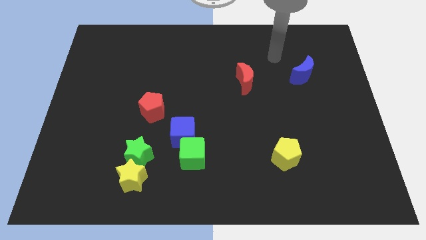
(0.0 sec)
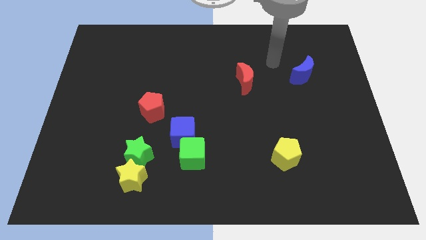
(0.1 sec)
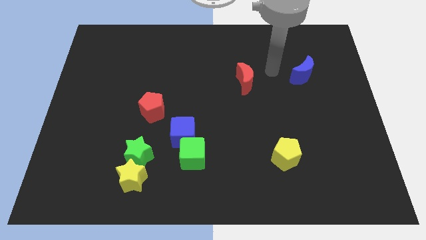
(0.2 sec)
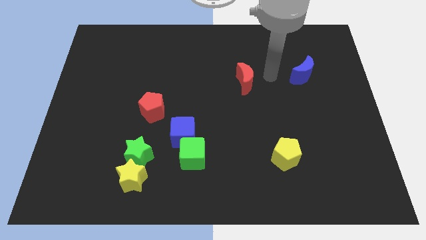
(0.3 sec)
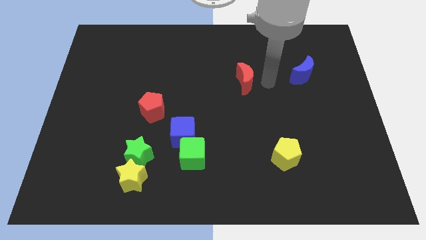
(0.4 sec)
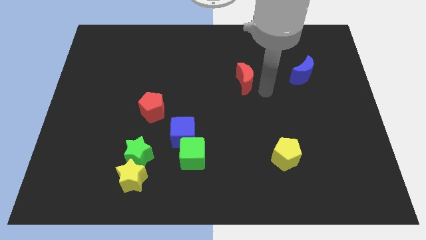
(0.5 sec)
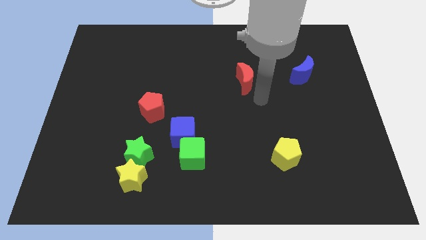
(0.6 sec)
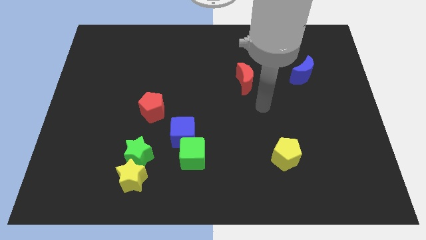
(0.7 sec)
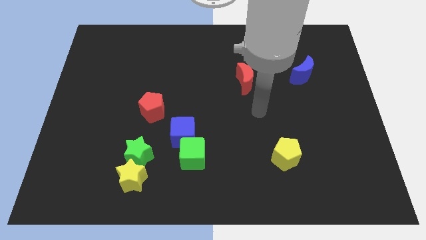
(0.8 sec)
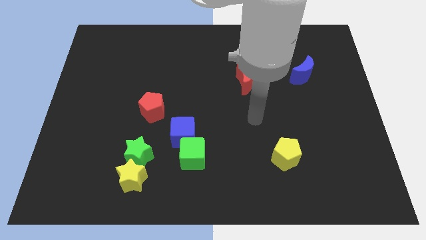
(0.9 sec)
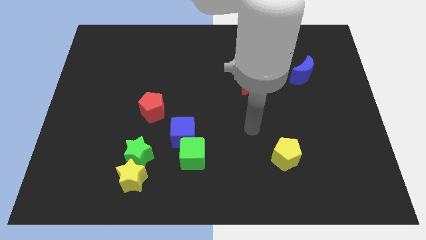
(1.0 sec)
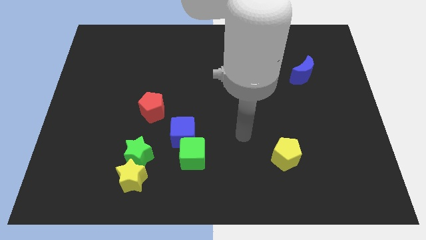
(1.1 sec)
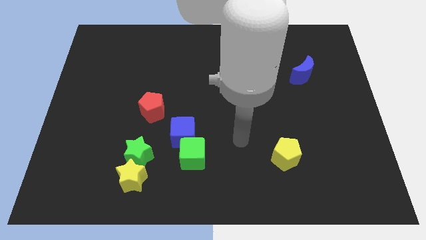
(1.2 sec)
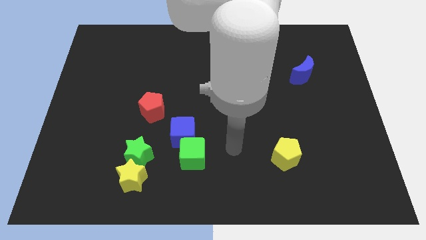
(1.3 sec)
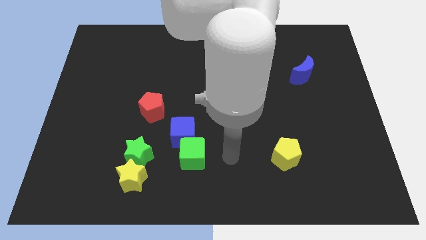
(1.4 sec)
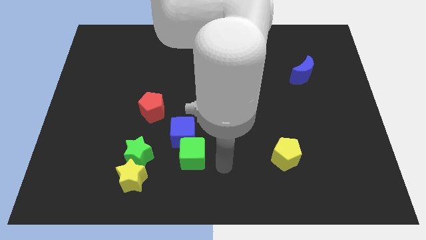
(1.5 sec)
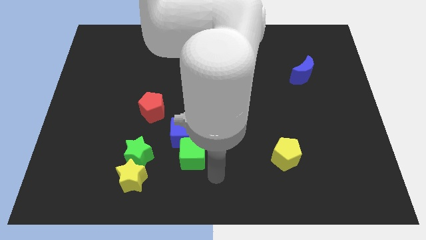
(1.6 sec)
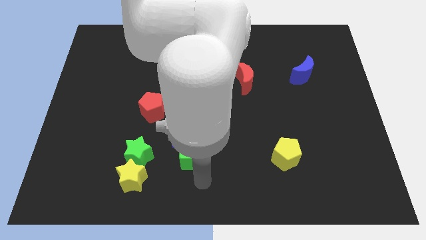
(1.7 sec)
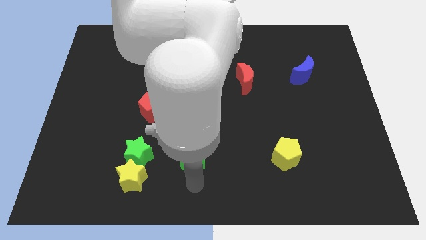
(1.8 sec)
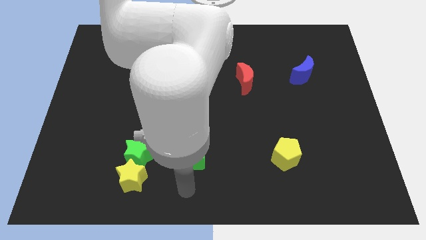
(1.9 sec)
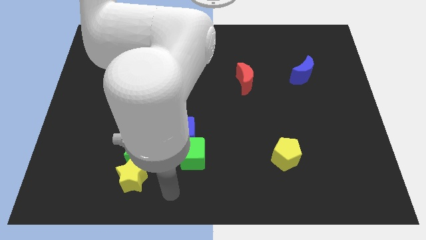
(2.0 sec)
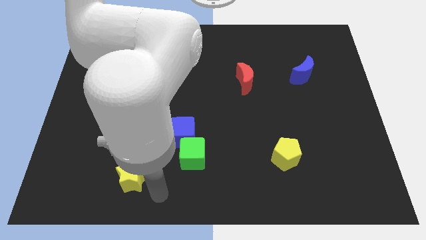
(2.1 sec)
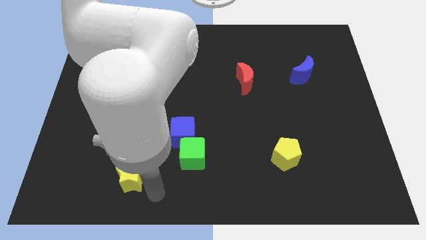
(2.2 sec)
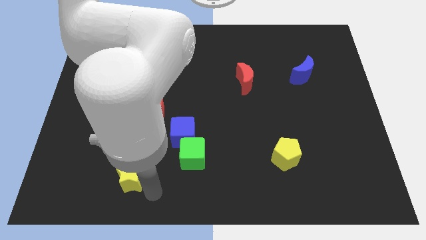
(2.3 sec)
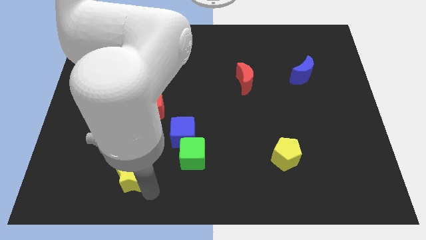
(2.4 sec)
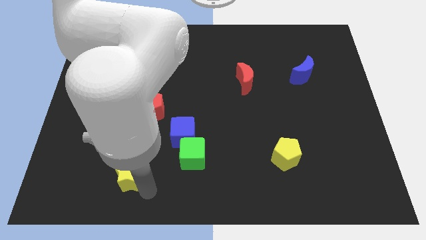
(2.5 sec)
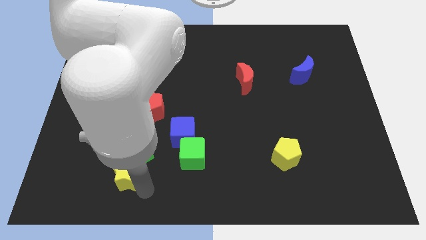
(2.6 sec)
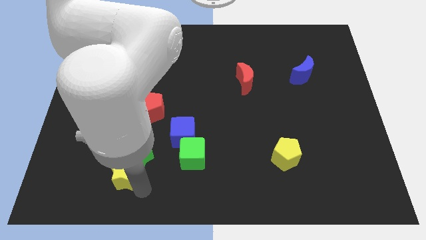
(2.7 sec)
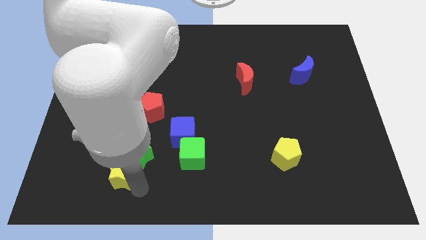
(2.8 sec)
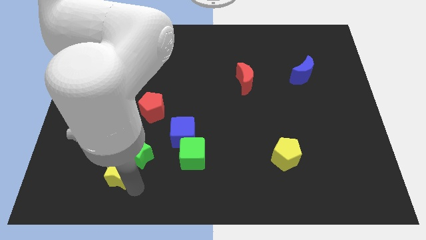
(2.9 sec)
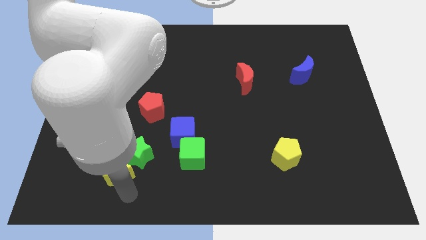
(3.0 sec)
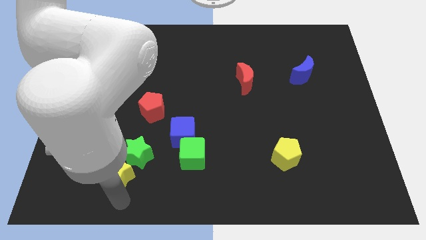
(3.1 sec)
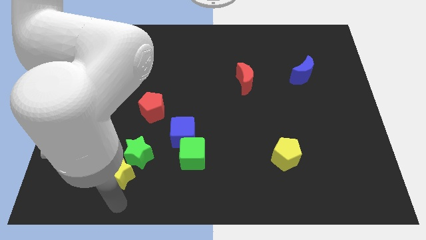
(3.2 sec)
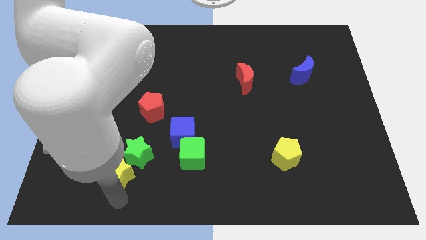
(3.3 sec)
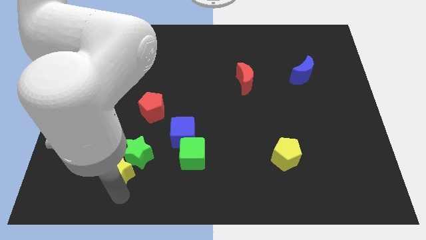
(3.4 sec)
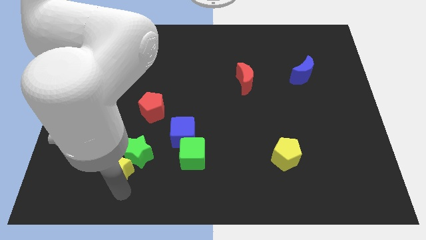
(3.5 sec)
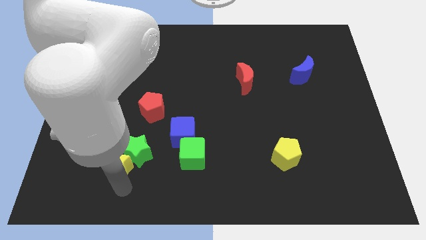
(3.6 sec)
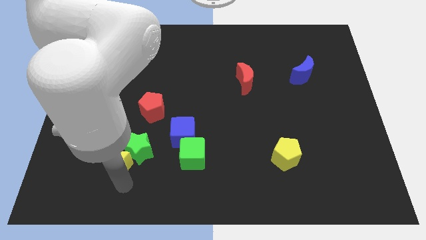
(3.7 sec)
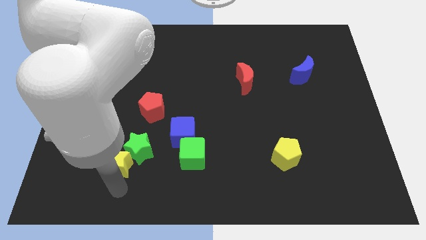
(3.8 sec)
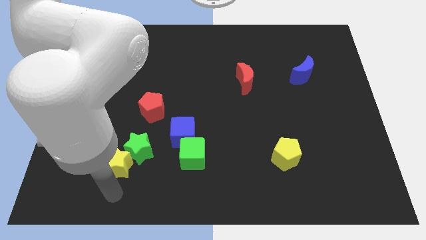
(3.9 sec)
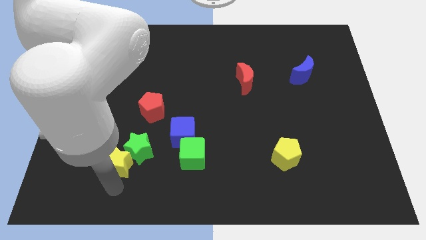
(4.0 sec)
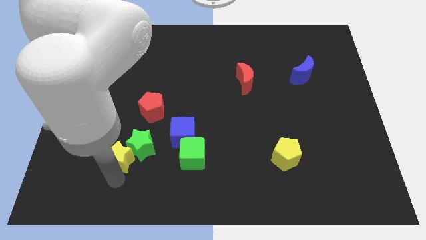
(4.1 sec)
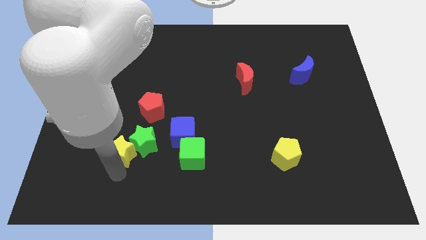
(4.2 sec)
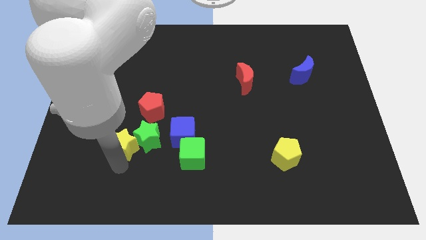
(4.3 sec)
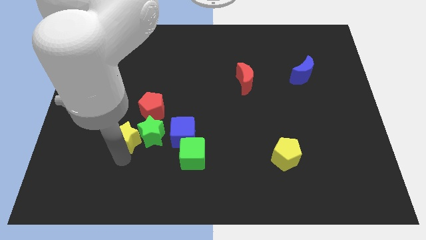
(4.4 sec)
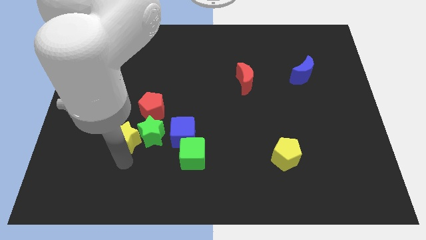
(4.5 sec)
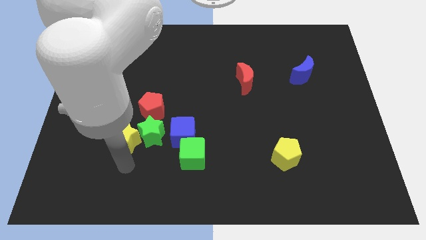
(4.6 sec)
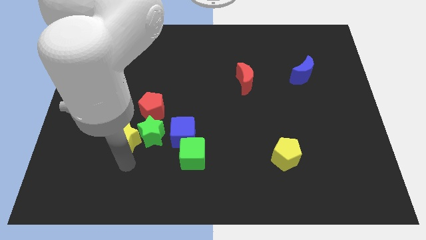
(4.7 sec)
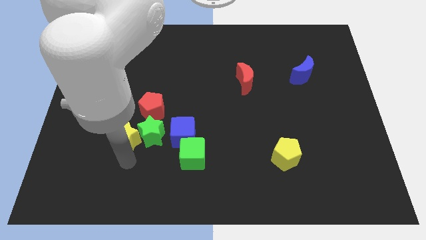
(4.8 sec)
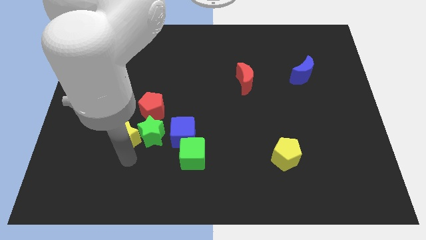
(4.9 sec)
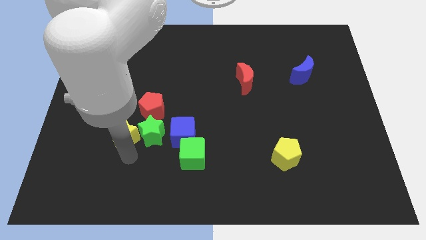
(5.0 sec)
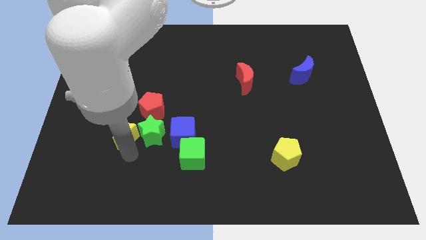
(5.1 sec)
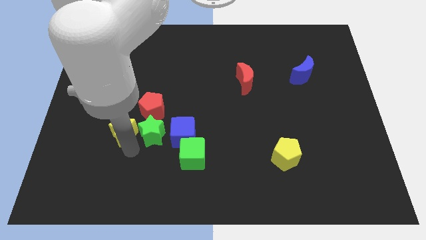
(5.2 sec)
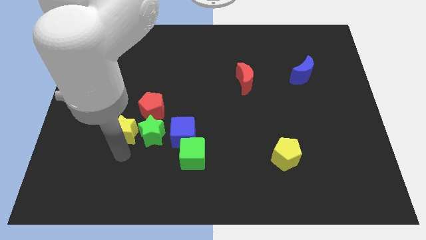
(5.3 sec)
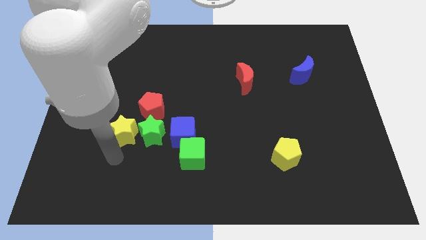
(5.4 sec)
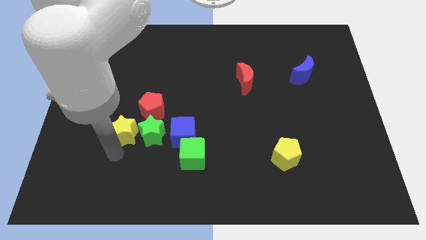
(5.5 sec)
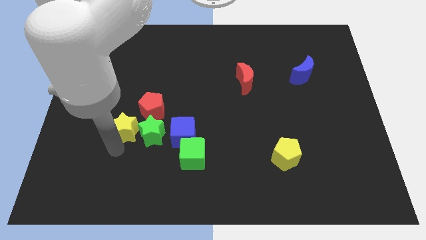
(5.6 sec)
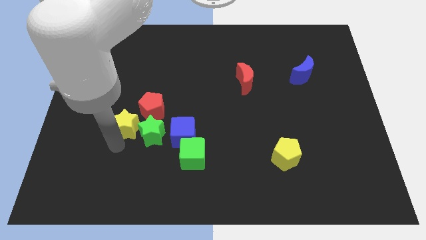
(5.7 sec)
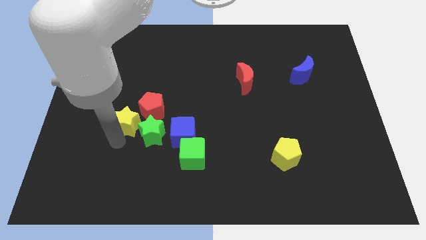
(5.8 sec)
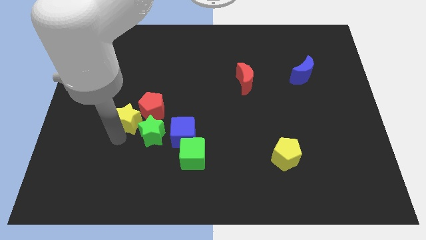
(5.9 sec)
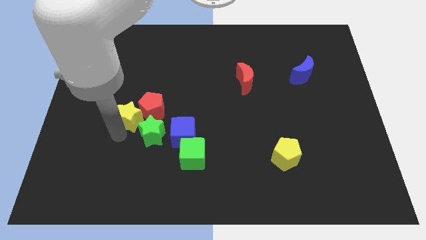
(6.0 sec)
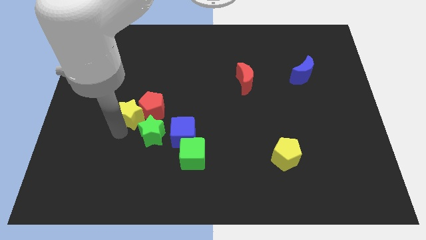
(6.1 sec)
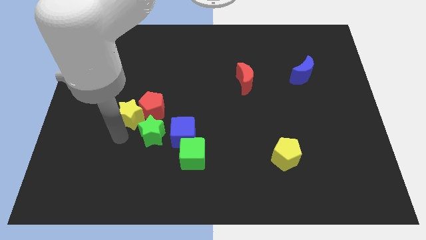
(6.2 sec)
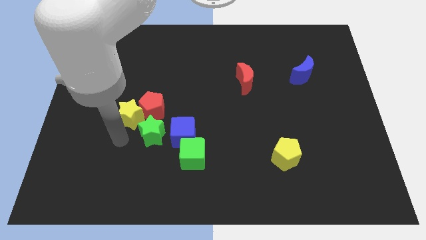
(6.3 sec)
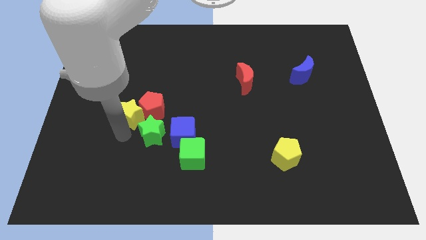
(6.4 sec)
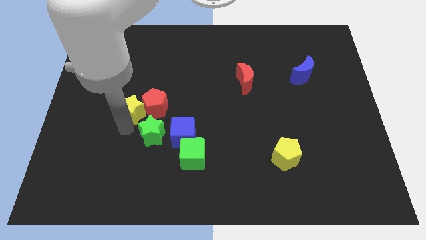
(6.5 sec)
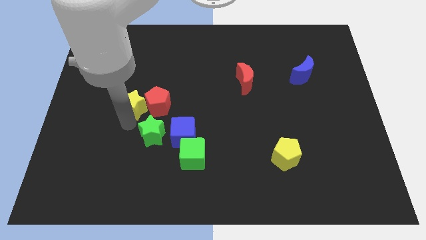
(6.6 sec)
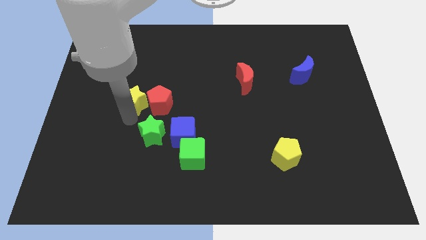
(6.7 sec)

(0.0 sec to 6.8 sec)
slide the yellow star up

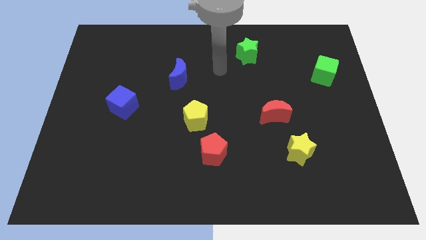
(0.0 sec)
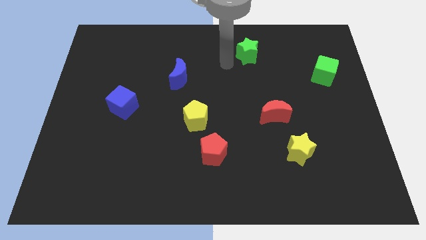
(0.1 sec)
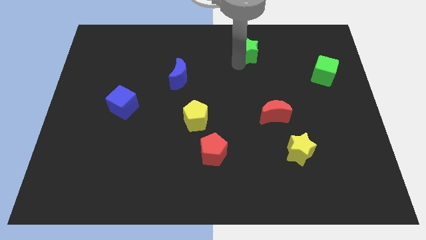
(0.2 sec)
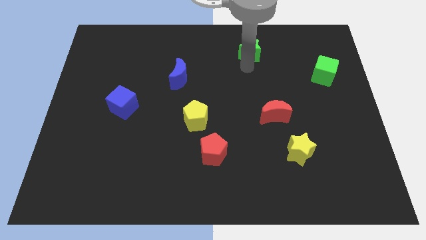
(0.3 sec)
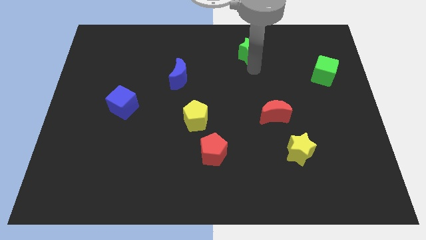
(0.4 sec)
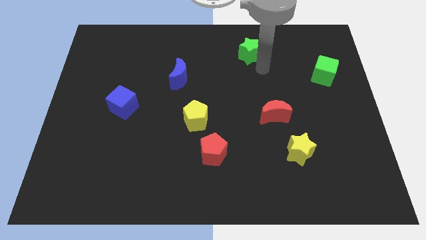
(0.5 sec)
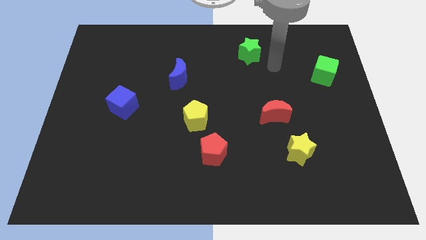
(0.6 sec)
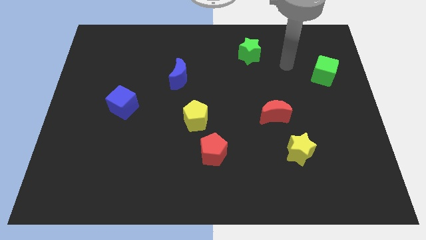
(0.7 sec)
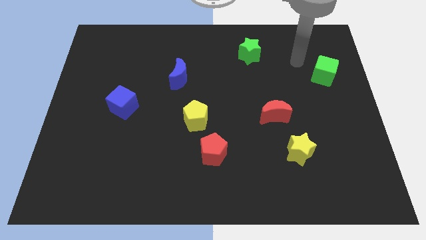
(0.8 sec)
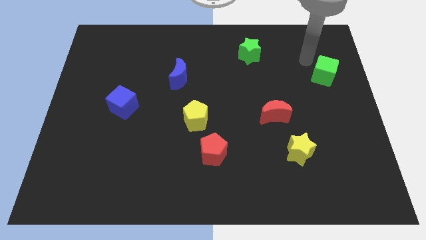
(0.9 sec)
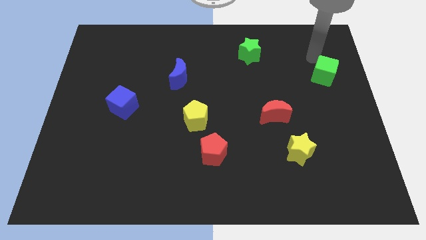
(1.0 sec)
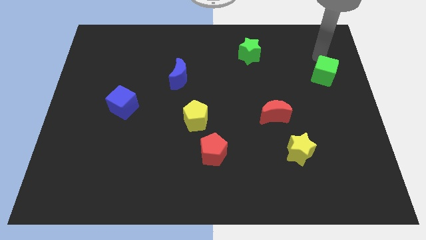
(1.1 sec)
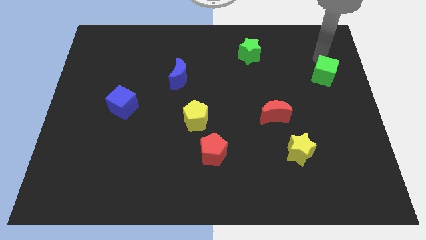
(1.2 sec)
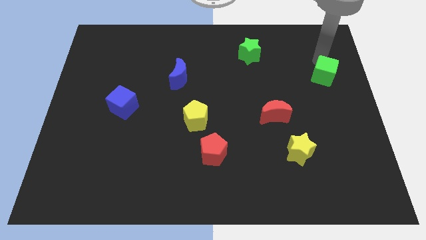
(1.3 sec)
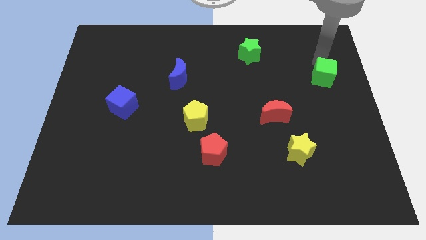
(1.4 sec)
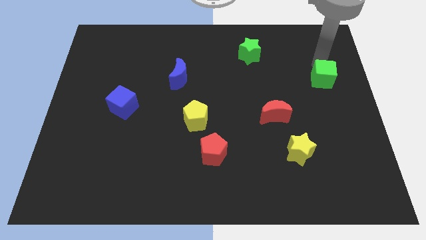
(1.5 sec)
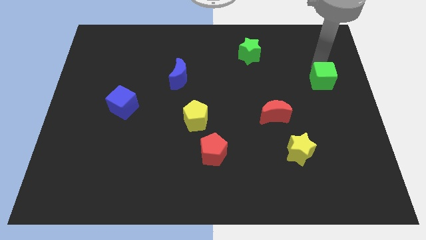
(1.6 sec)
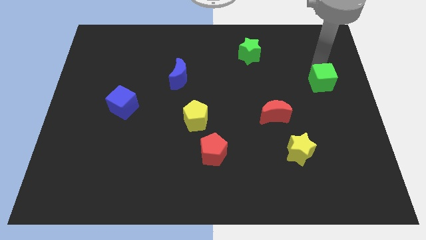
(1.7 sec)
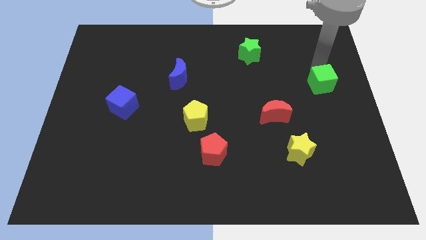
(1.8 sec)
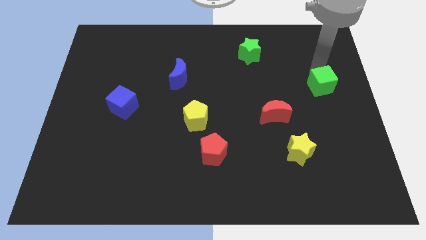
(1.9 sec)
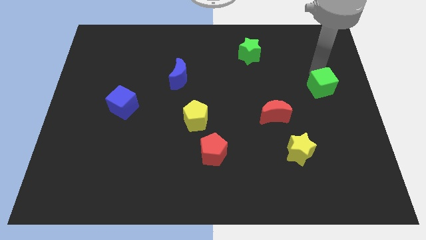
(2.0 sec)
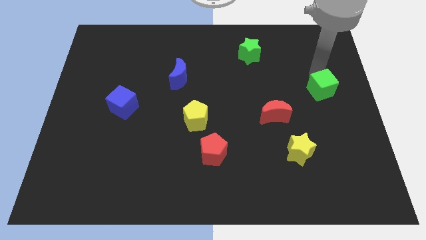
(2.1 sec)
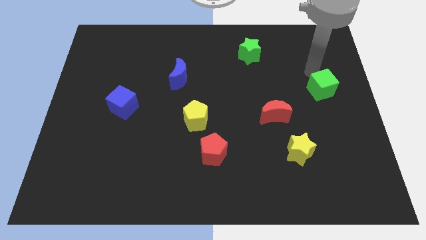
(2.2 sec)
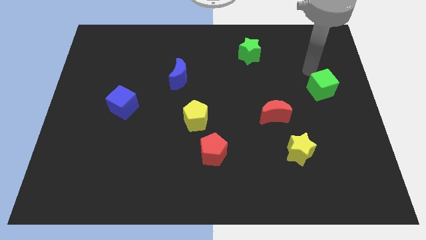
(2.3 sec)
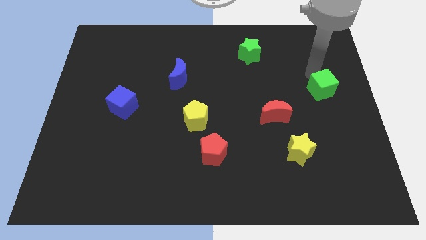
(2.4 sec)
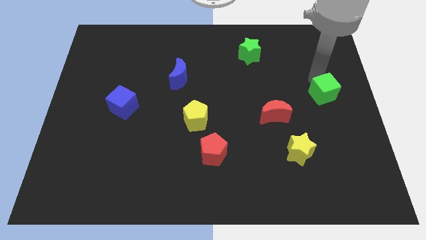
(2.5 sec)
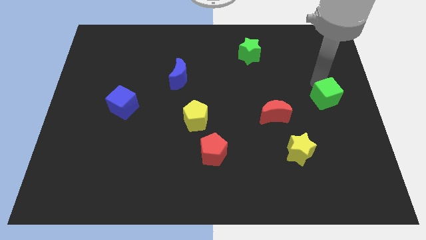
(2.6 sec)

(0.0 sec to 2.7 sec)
slide the green cube down a little
